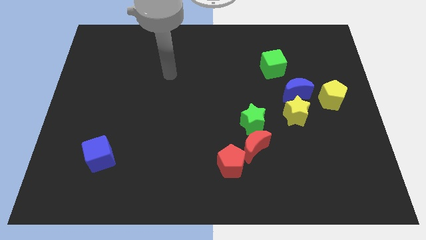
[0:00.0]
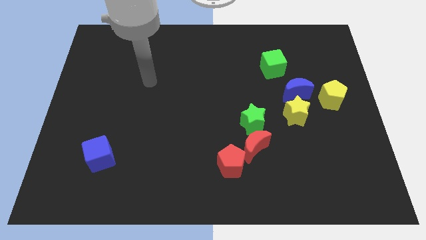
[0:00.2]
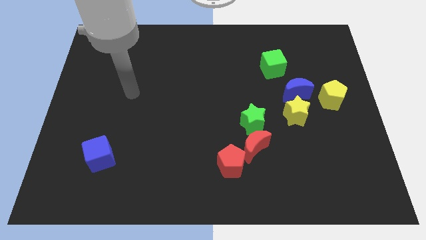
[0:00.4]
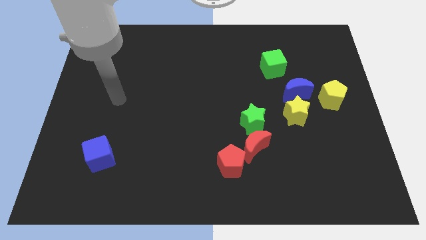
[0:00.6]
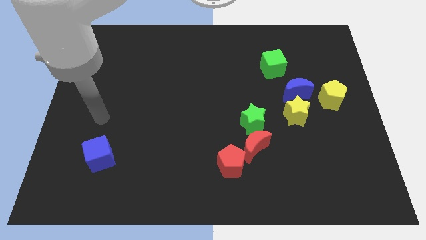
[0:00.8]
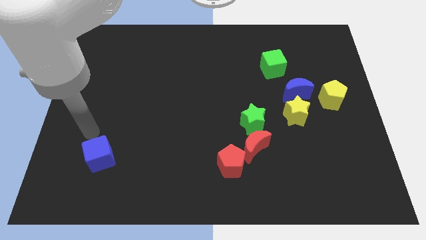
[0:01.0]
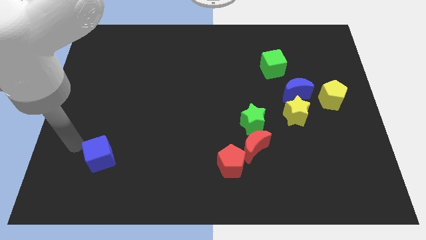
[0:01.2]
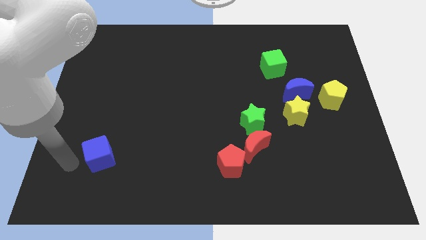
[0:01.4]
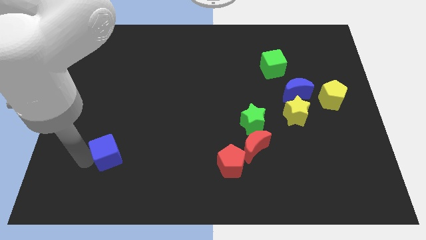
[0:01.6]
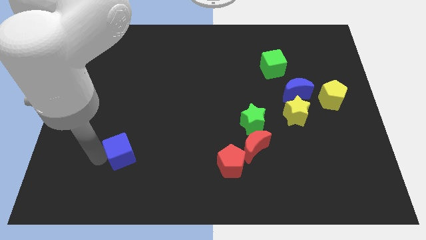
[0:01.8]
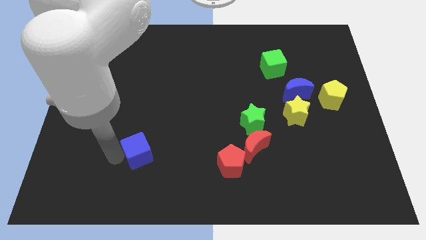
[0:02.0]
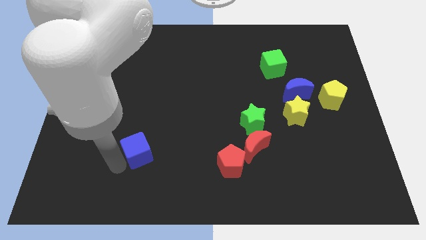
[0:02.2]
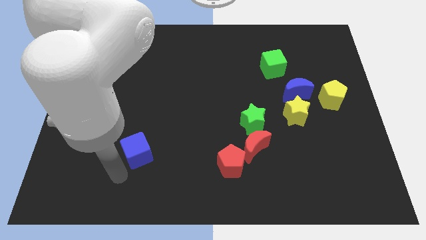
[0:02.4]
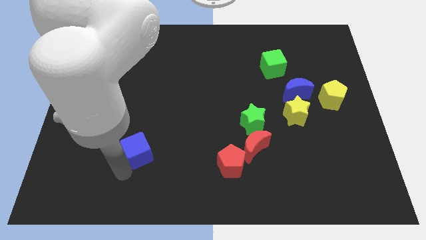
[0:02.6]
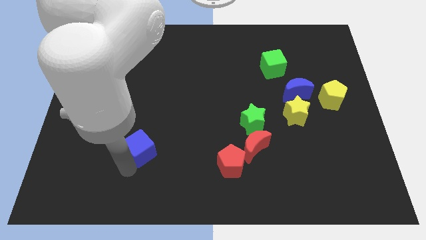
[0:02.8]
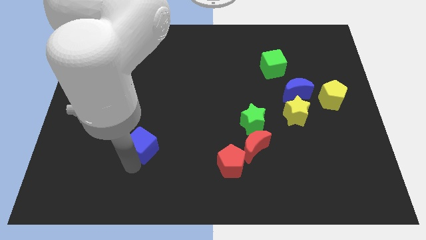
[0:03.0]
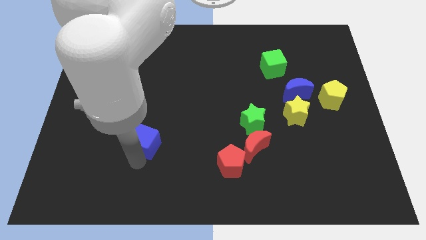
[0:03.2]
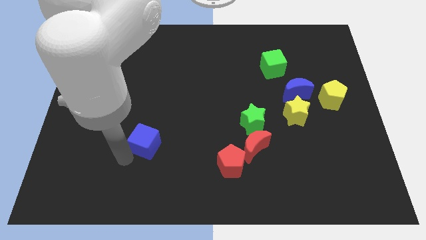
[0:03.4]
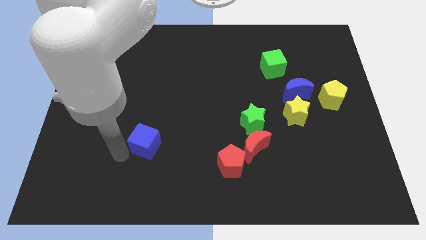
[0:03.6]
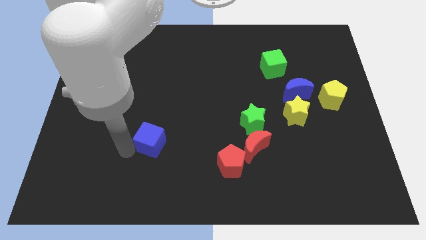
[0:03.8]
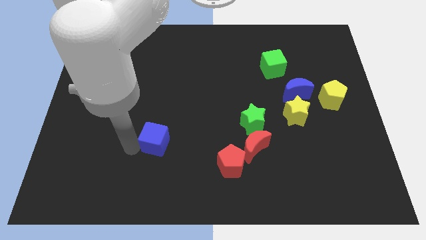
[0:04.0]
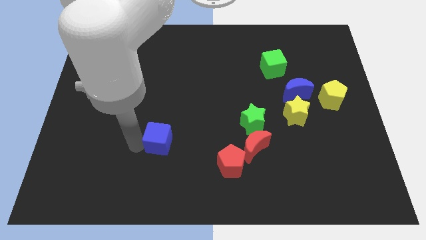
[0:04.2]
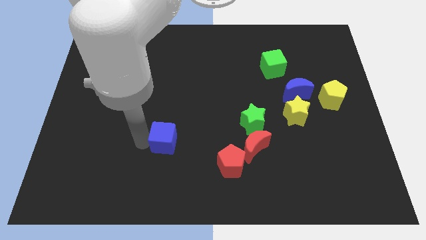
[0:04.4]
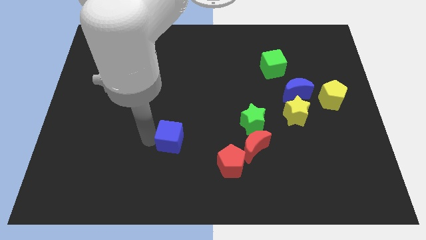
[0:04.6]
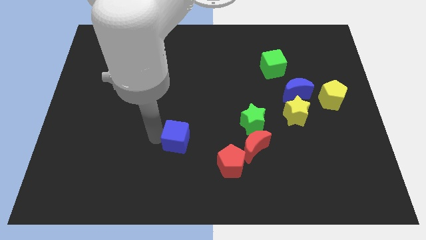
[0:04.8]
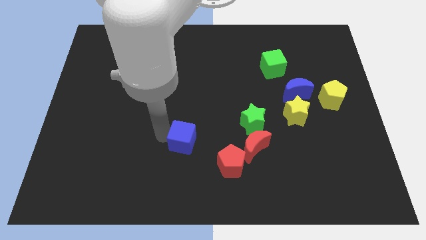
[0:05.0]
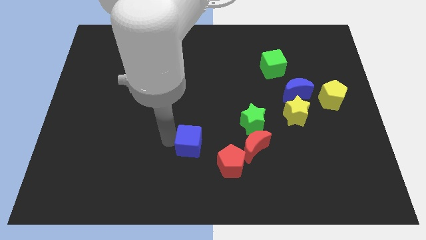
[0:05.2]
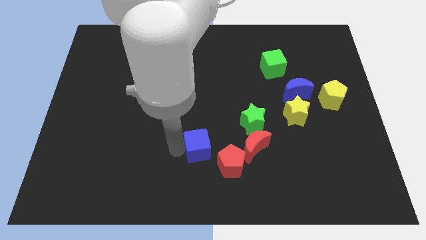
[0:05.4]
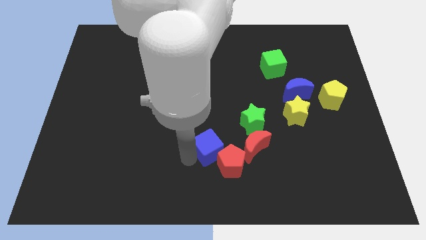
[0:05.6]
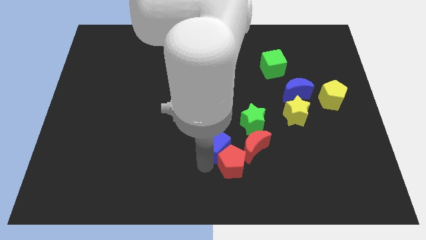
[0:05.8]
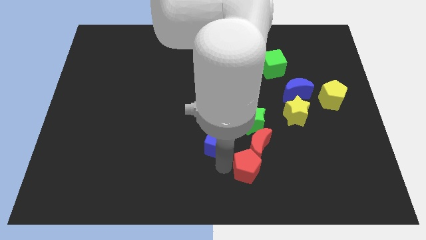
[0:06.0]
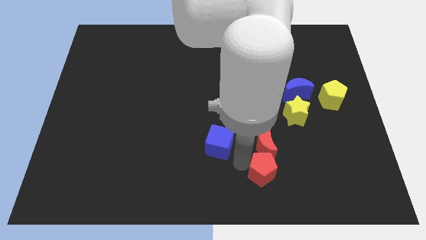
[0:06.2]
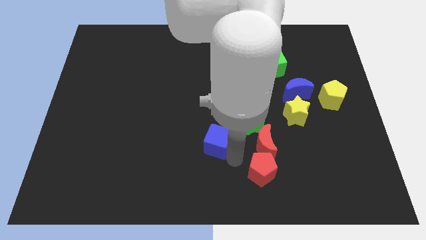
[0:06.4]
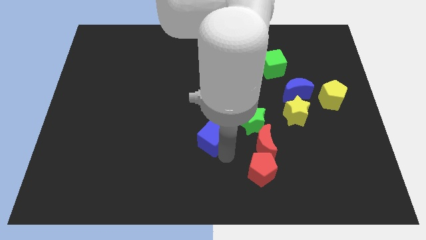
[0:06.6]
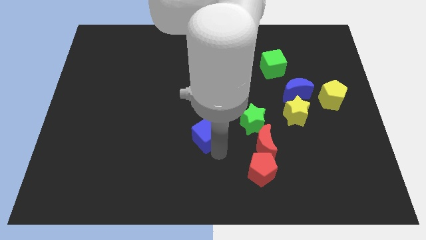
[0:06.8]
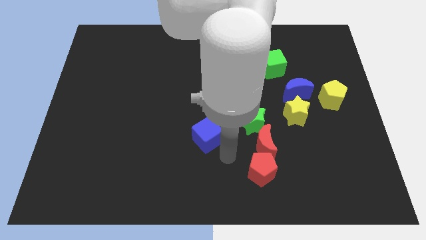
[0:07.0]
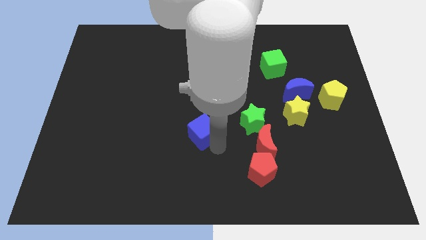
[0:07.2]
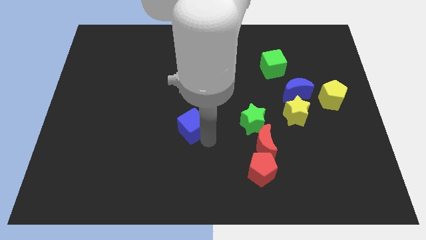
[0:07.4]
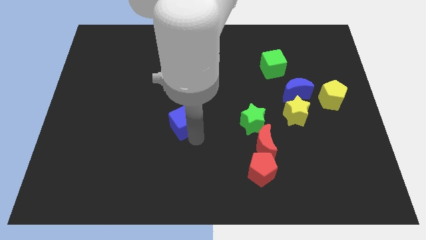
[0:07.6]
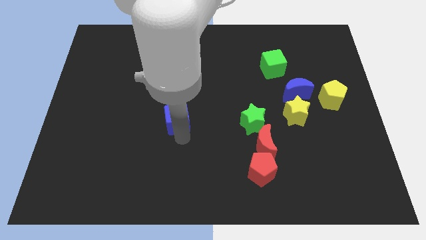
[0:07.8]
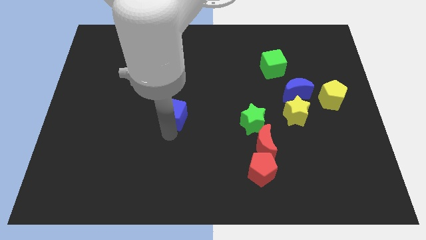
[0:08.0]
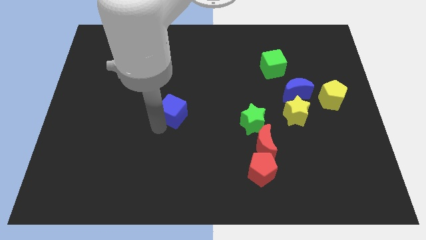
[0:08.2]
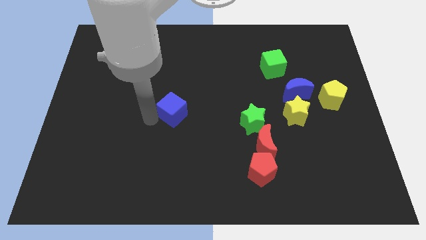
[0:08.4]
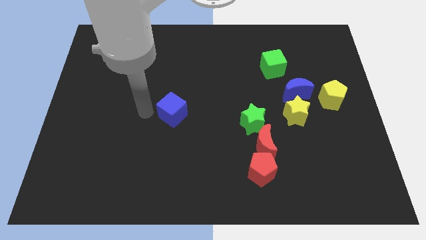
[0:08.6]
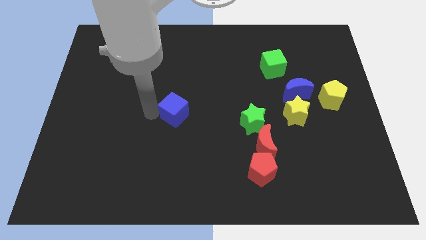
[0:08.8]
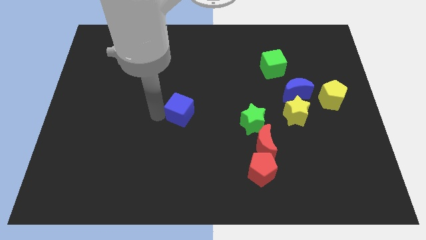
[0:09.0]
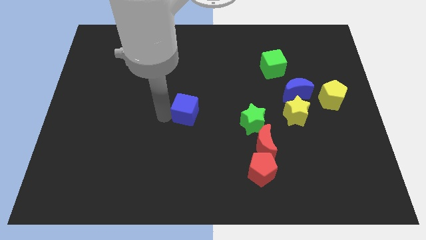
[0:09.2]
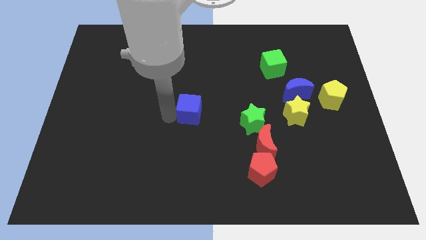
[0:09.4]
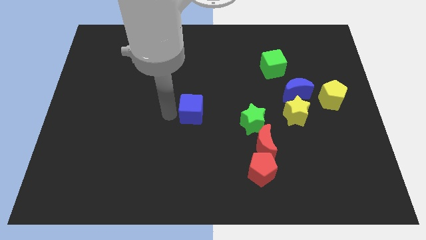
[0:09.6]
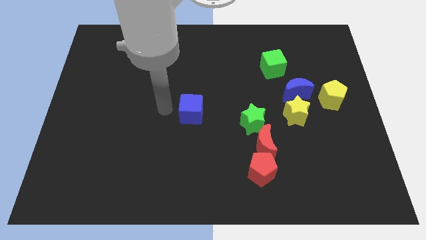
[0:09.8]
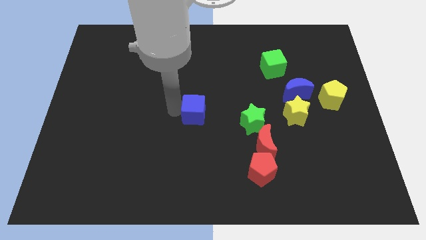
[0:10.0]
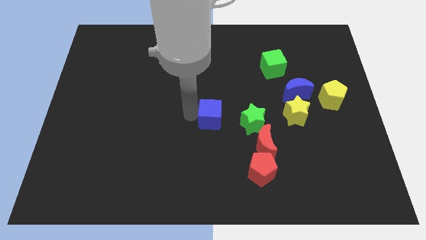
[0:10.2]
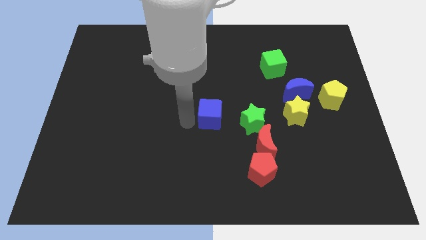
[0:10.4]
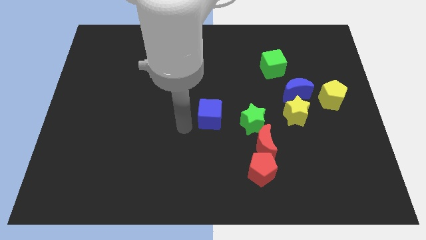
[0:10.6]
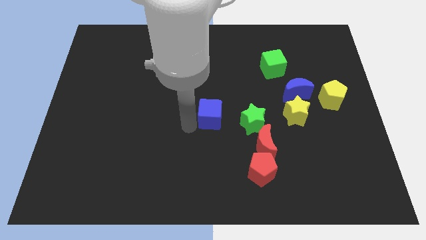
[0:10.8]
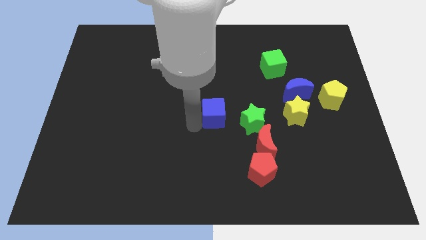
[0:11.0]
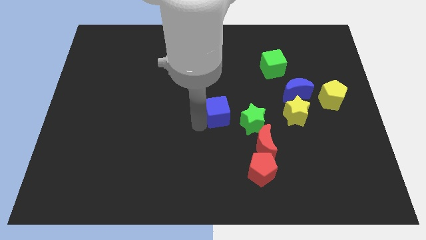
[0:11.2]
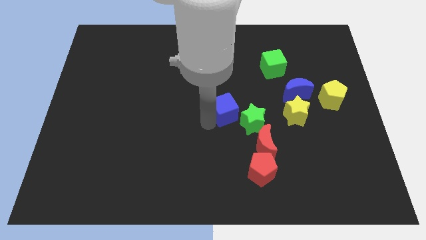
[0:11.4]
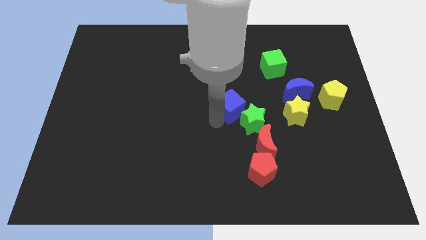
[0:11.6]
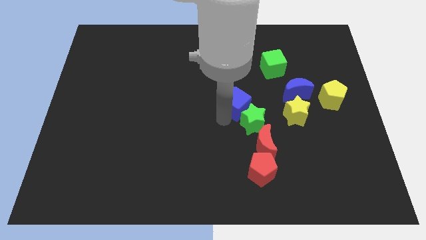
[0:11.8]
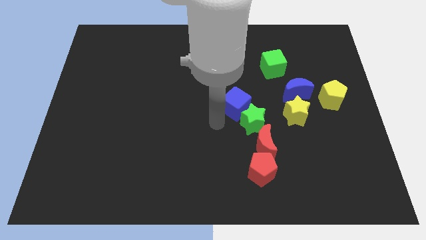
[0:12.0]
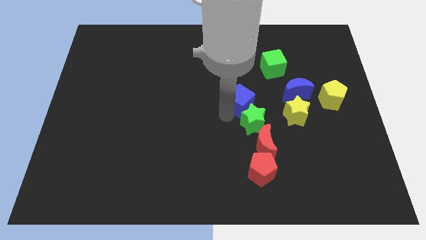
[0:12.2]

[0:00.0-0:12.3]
put the blue cube left of the blue moon

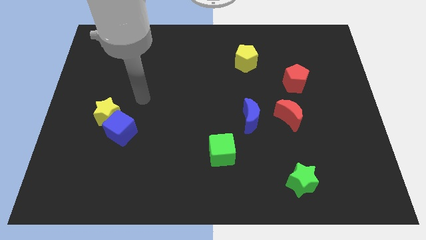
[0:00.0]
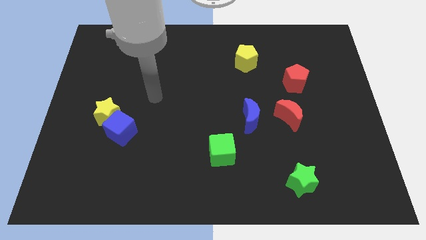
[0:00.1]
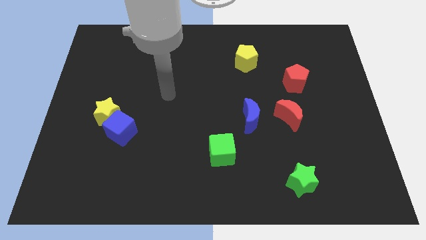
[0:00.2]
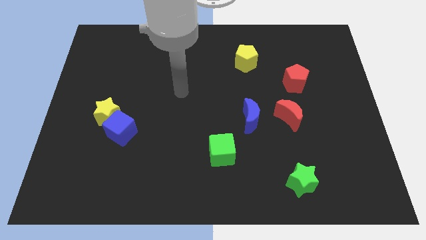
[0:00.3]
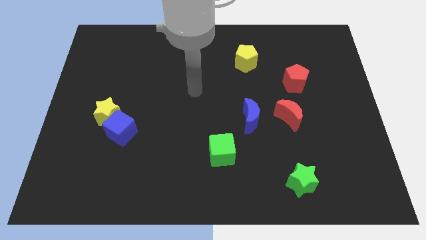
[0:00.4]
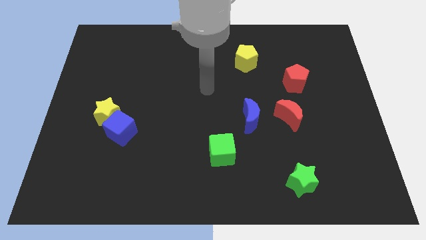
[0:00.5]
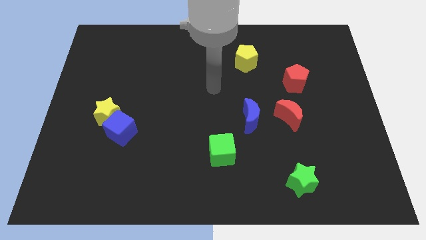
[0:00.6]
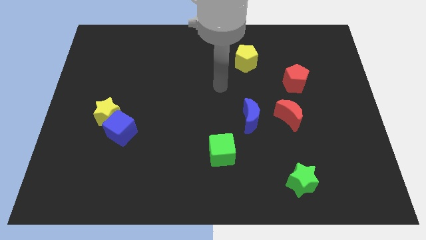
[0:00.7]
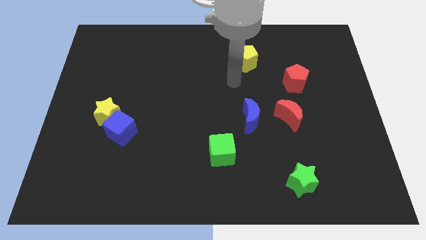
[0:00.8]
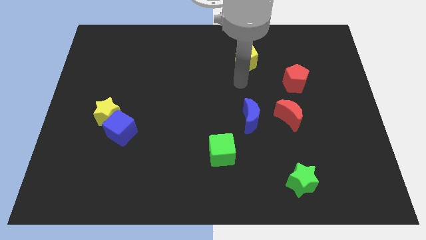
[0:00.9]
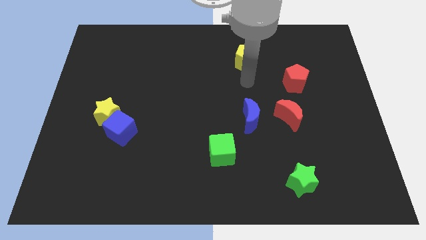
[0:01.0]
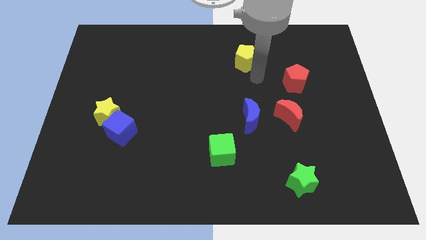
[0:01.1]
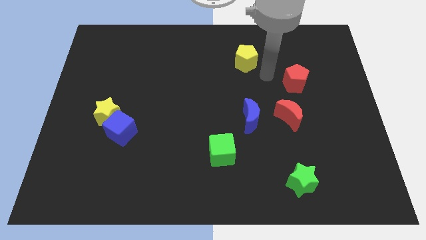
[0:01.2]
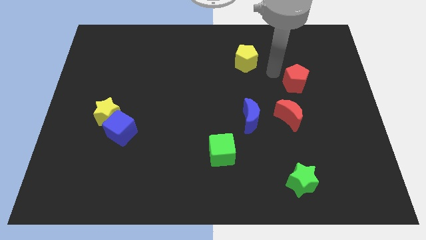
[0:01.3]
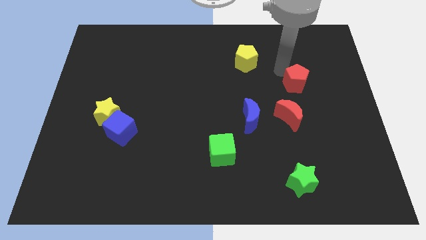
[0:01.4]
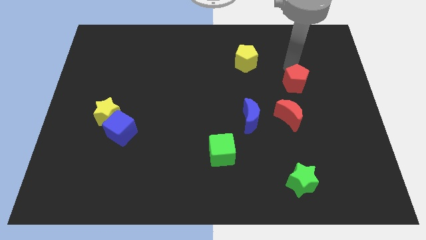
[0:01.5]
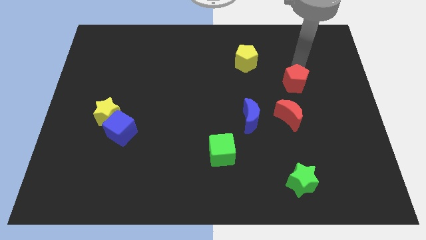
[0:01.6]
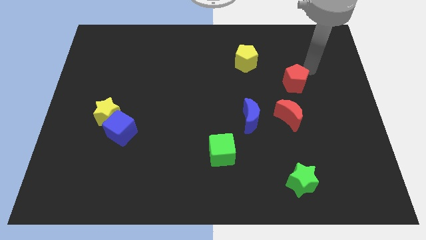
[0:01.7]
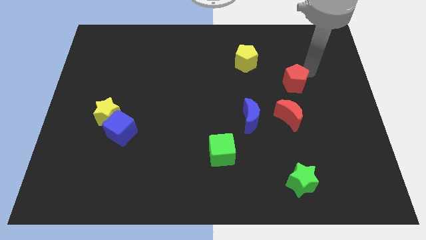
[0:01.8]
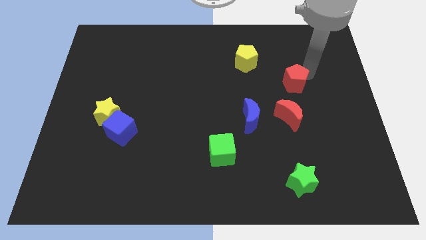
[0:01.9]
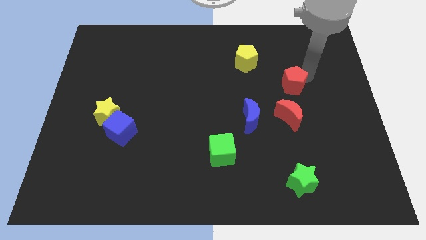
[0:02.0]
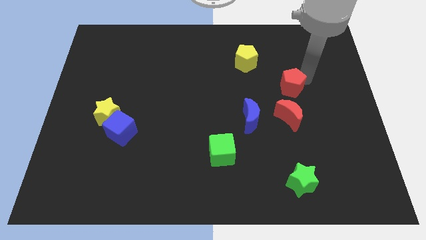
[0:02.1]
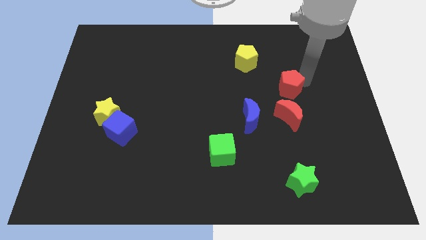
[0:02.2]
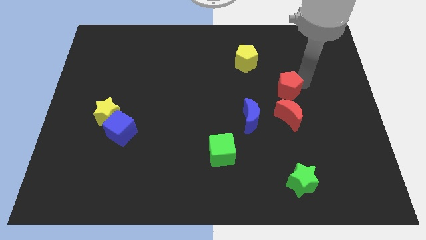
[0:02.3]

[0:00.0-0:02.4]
push the red pentagon diagonally up and to the right of the blue moon
